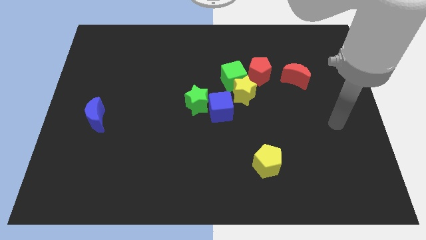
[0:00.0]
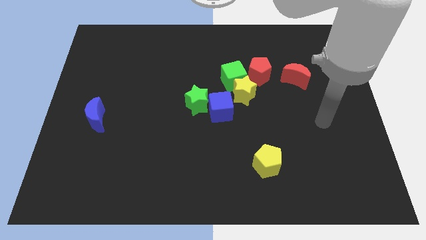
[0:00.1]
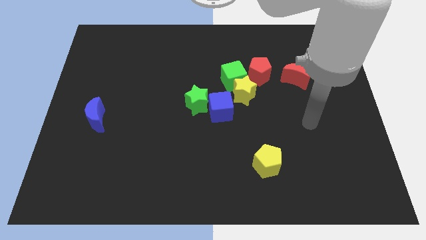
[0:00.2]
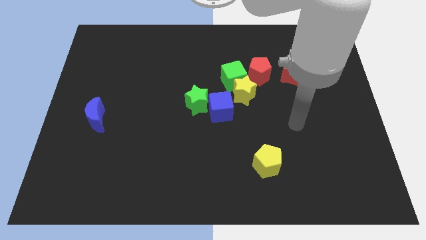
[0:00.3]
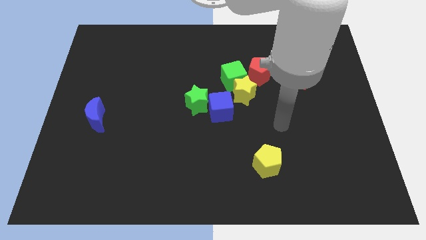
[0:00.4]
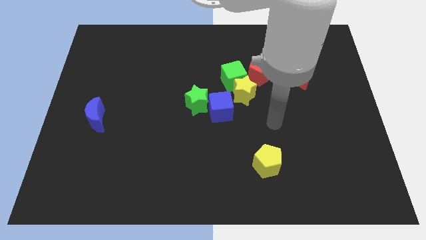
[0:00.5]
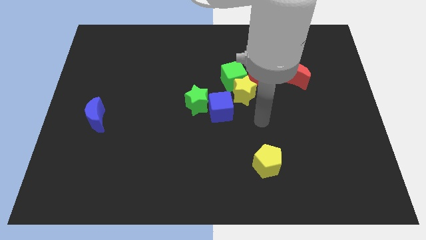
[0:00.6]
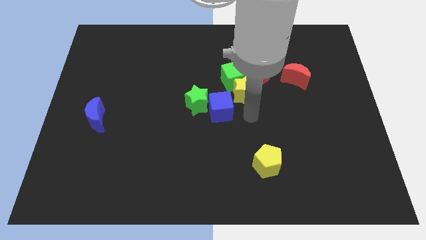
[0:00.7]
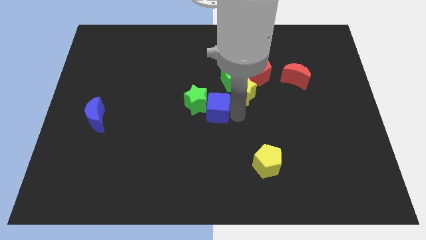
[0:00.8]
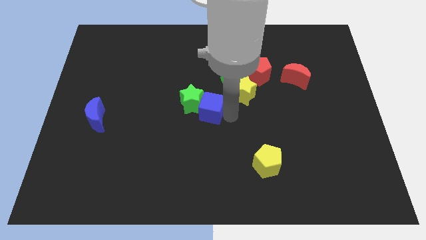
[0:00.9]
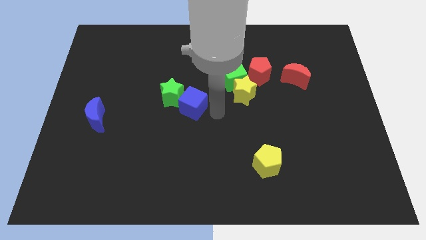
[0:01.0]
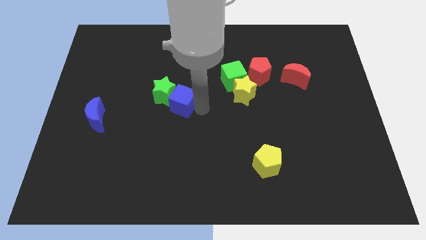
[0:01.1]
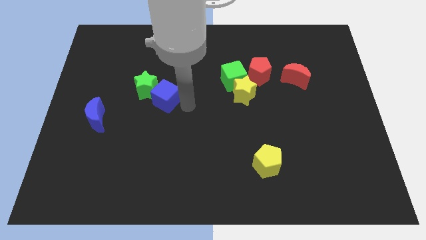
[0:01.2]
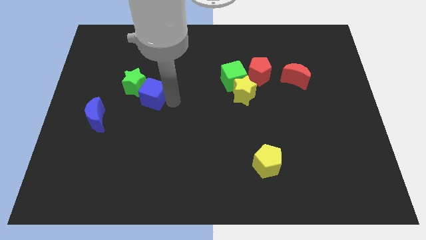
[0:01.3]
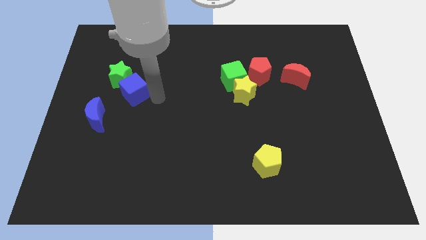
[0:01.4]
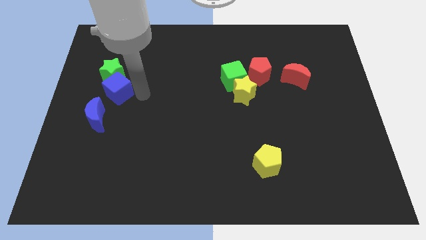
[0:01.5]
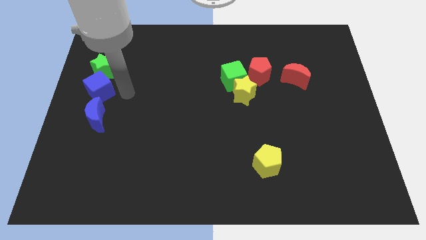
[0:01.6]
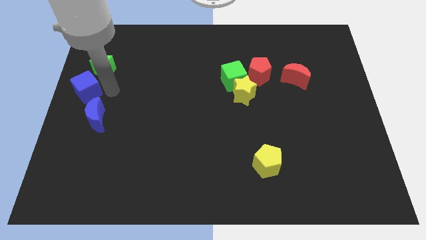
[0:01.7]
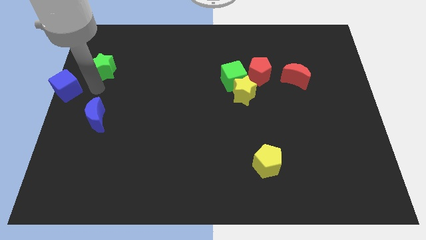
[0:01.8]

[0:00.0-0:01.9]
move the green star away from the blue cube

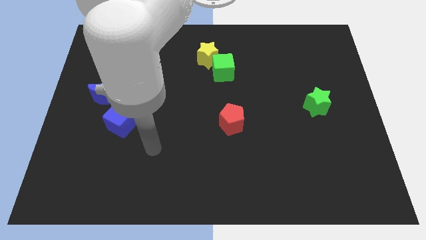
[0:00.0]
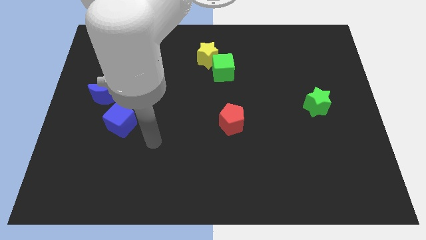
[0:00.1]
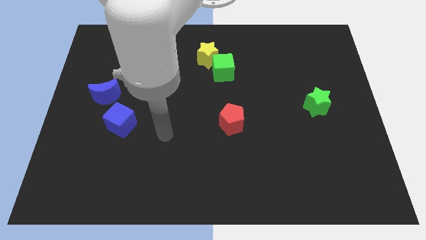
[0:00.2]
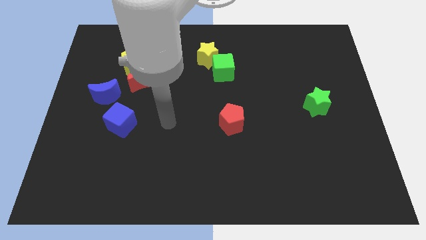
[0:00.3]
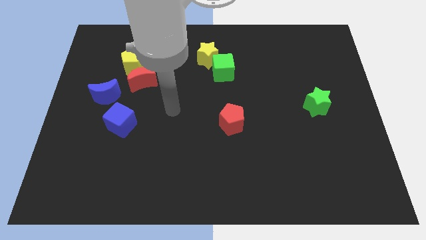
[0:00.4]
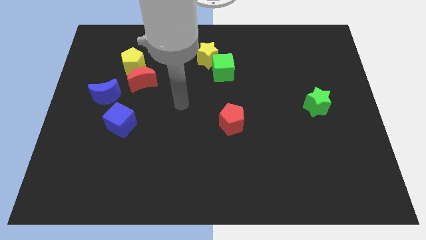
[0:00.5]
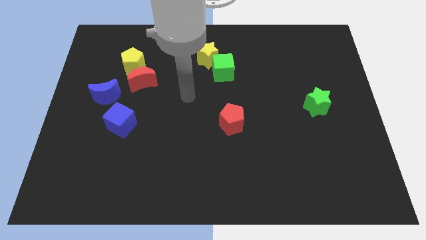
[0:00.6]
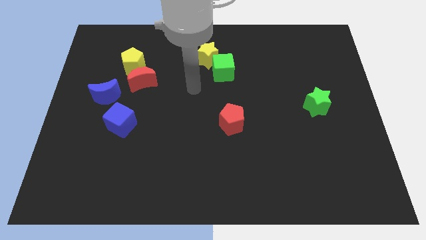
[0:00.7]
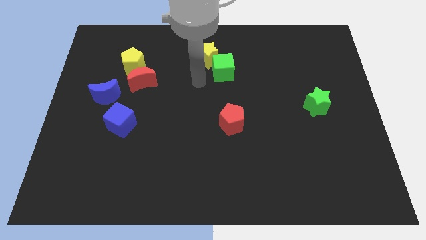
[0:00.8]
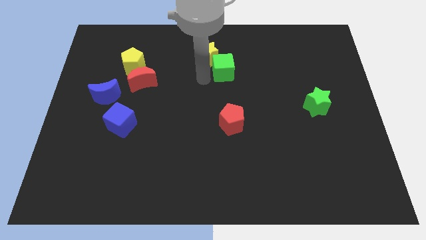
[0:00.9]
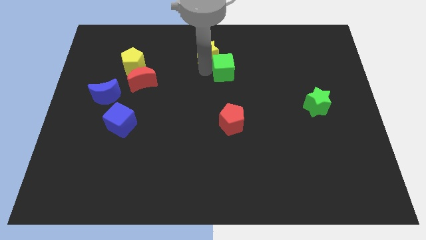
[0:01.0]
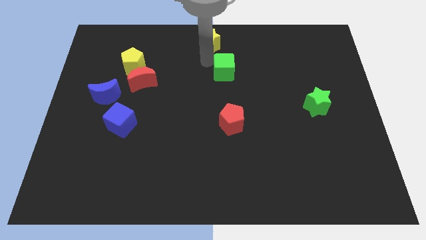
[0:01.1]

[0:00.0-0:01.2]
separate the green cube from the yellow star

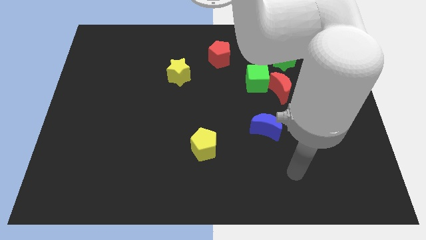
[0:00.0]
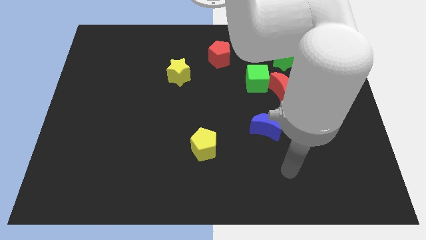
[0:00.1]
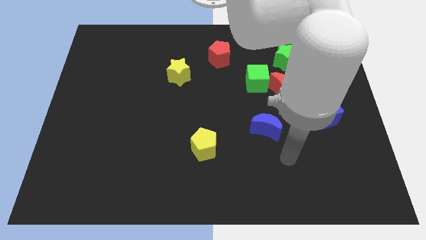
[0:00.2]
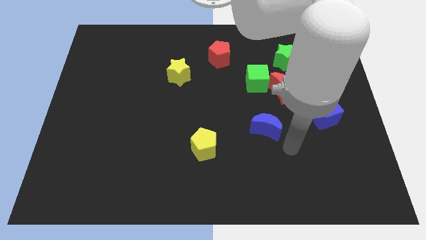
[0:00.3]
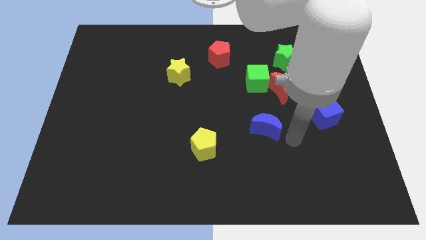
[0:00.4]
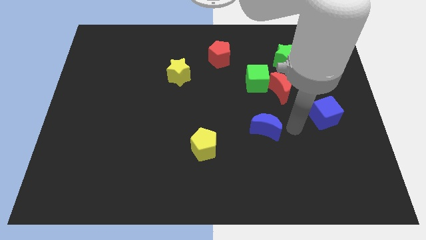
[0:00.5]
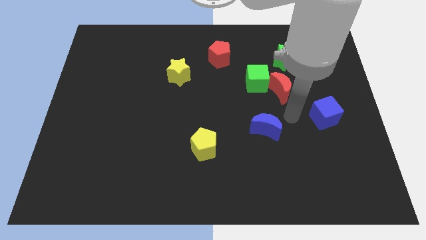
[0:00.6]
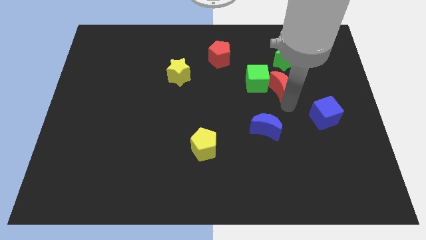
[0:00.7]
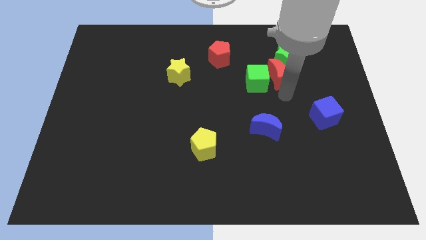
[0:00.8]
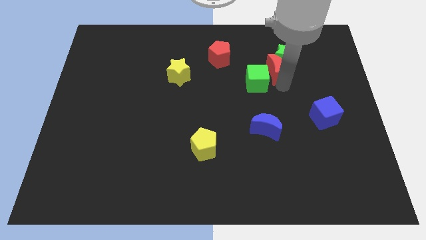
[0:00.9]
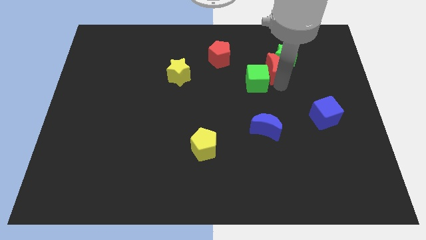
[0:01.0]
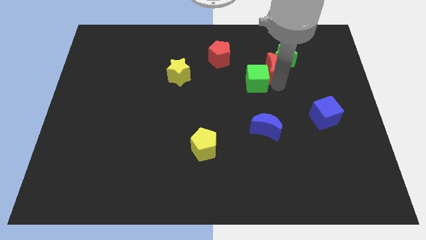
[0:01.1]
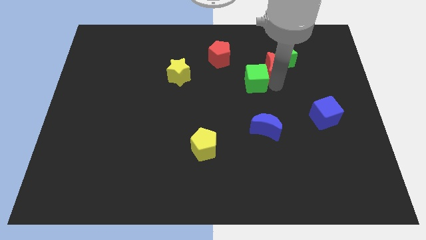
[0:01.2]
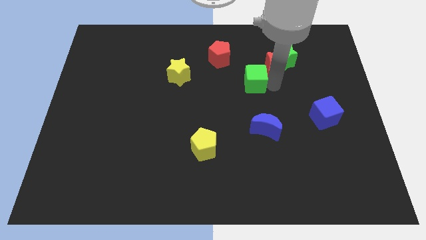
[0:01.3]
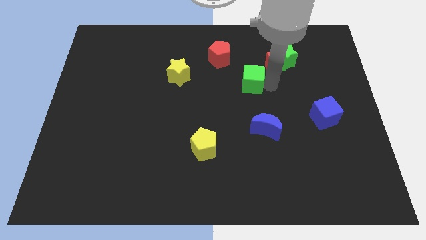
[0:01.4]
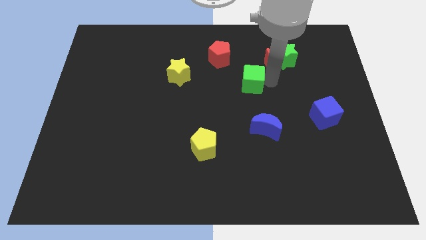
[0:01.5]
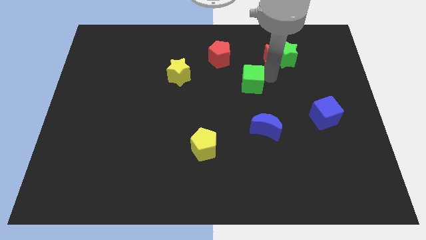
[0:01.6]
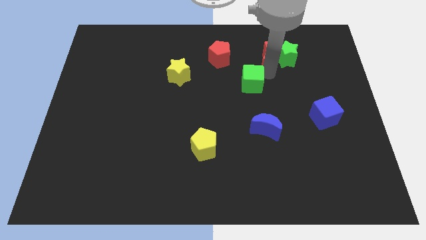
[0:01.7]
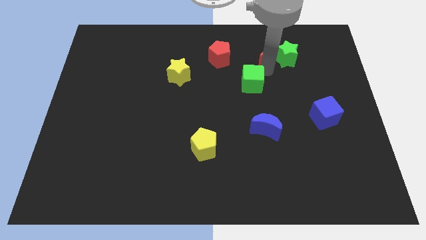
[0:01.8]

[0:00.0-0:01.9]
move the green cube away from the red moon

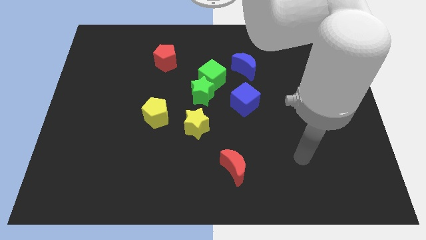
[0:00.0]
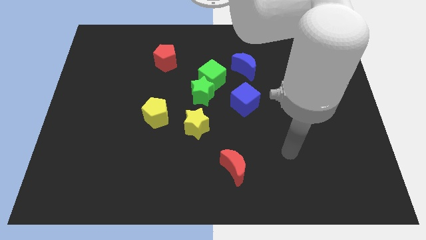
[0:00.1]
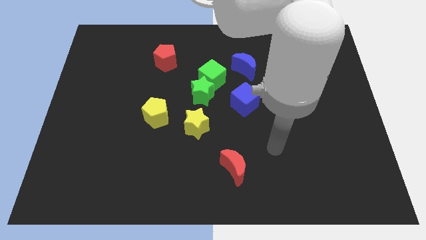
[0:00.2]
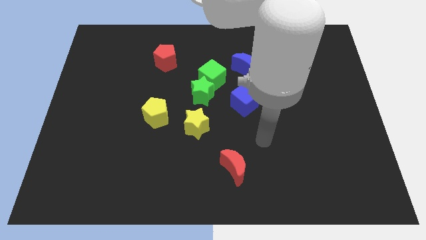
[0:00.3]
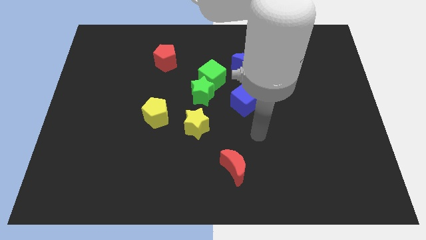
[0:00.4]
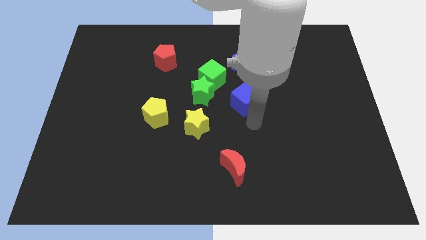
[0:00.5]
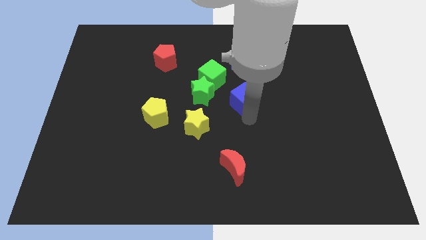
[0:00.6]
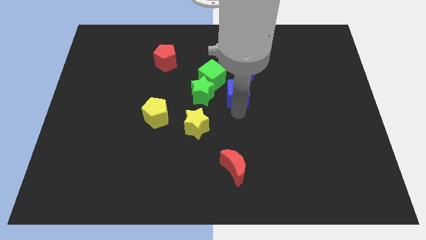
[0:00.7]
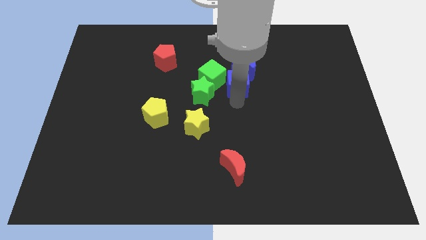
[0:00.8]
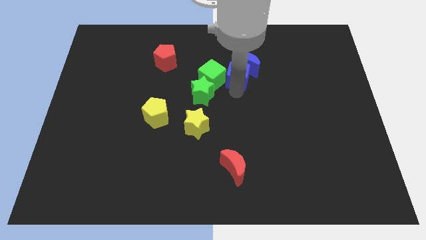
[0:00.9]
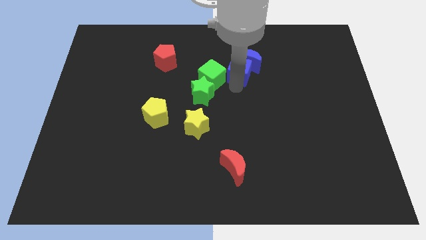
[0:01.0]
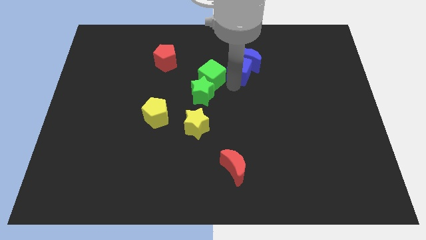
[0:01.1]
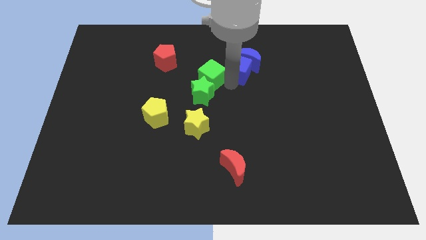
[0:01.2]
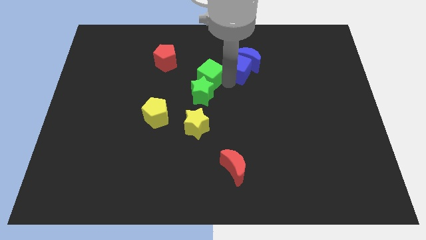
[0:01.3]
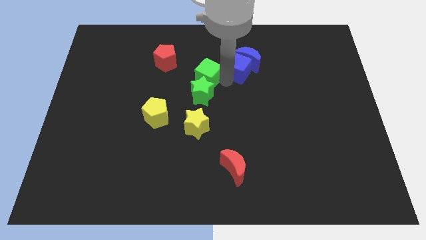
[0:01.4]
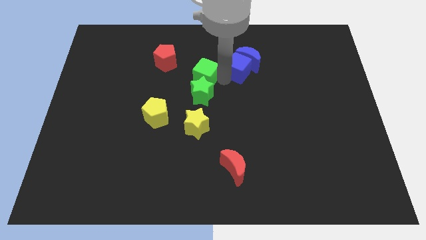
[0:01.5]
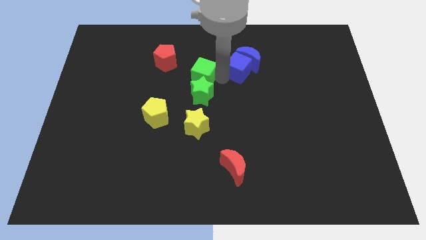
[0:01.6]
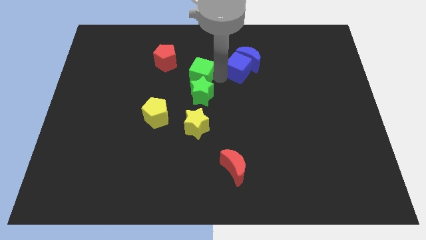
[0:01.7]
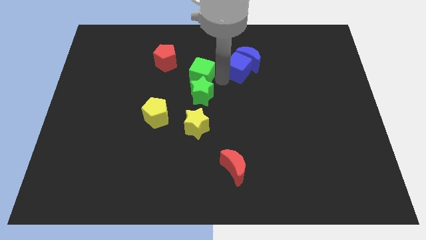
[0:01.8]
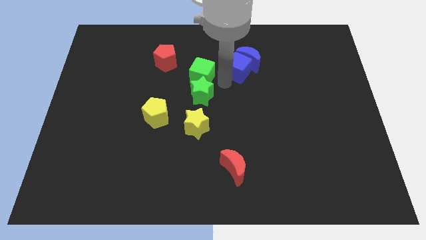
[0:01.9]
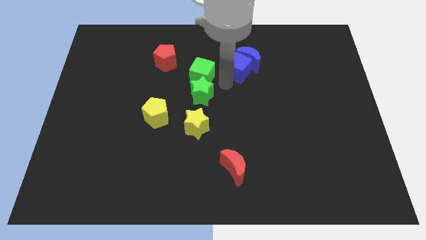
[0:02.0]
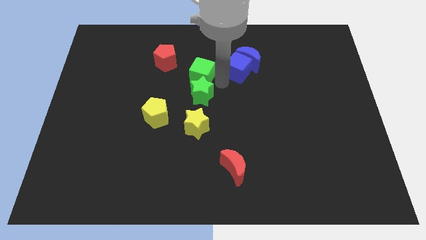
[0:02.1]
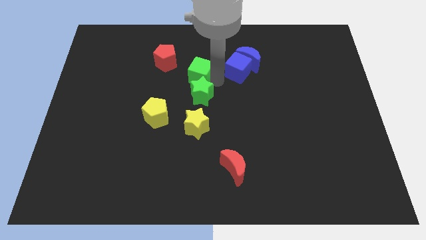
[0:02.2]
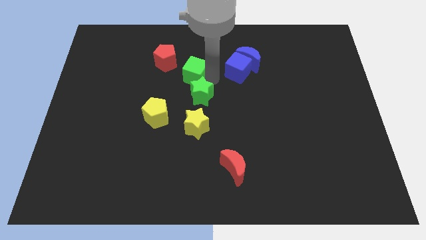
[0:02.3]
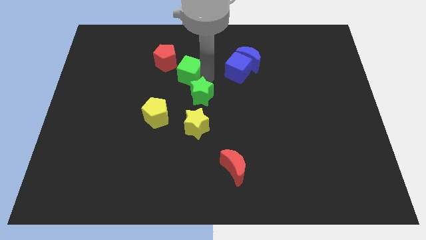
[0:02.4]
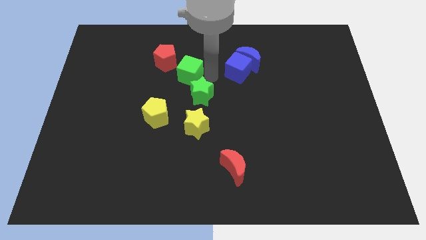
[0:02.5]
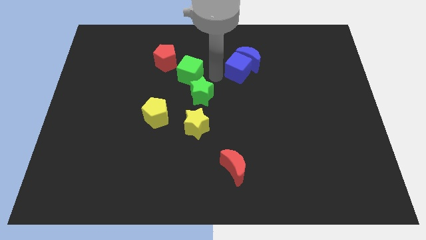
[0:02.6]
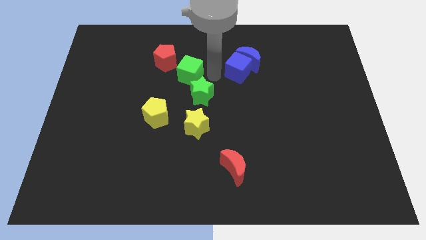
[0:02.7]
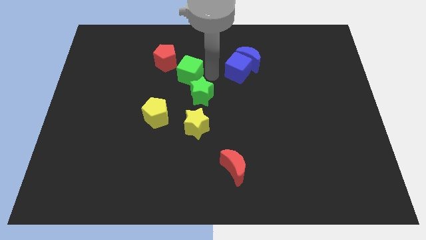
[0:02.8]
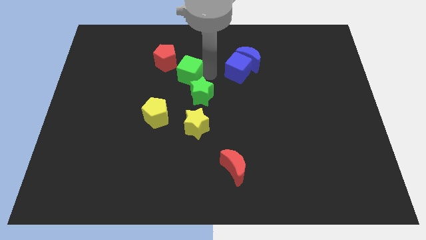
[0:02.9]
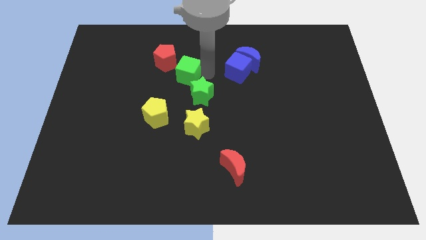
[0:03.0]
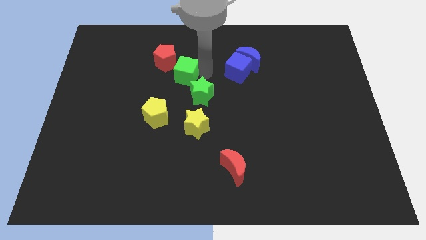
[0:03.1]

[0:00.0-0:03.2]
pull the green cube apart from the green star and blue moon

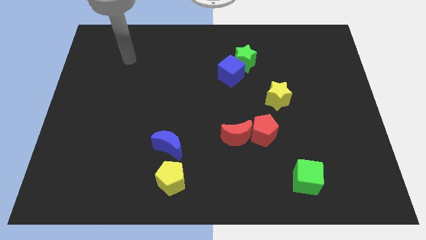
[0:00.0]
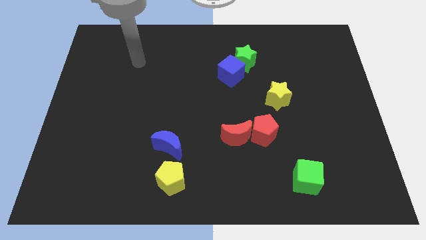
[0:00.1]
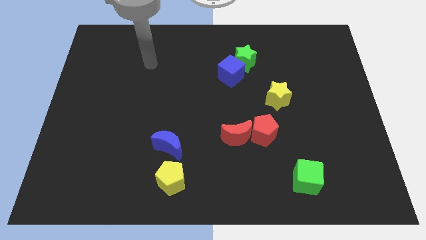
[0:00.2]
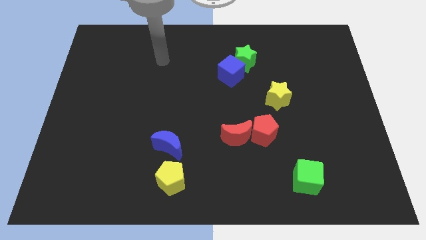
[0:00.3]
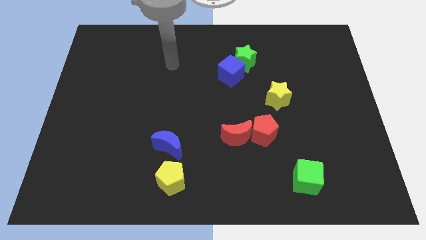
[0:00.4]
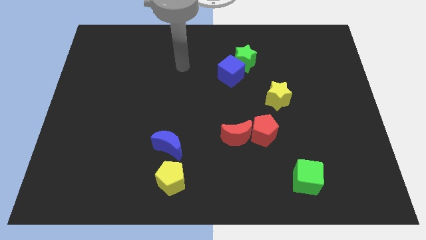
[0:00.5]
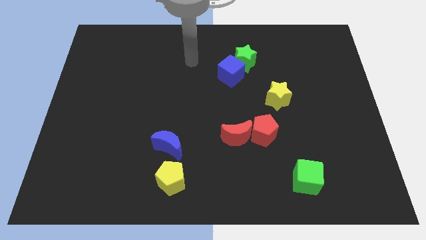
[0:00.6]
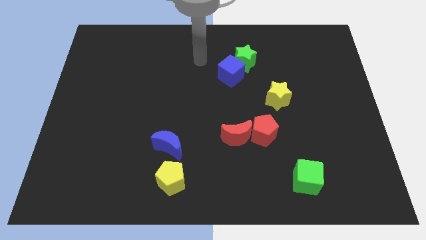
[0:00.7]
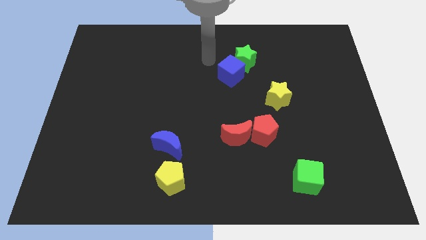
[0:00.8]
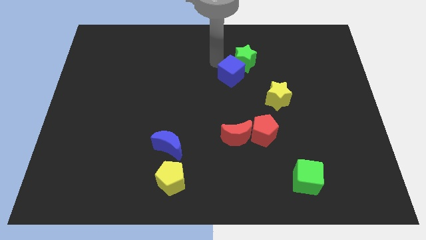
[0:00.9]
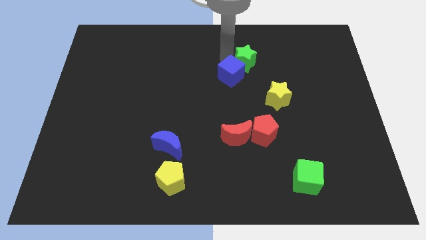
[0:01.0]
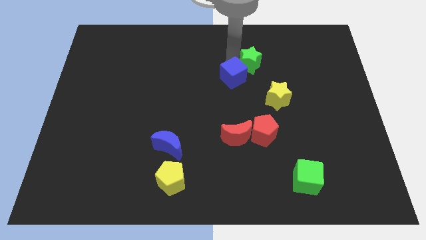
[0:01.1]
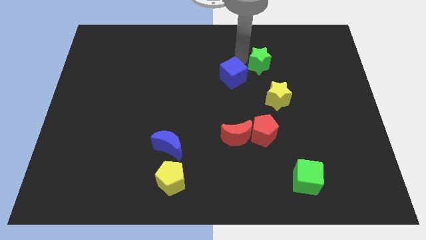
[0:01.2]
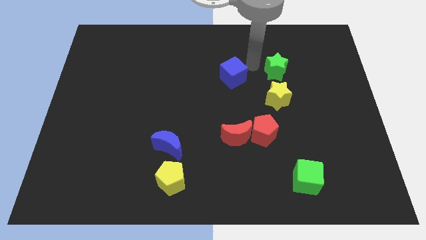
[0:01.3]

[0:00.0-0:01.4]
separate the blue cube from the green star
